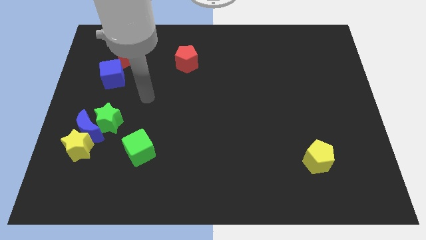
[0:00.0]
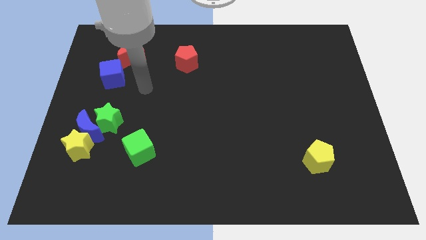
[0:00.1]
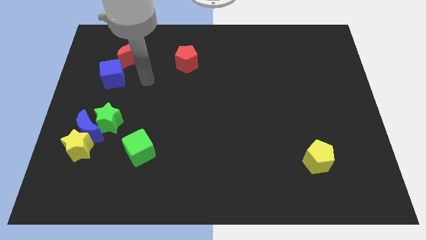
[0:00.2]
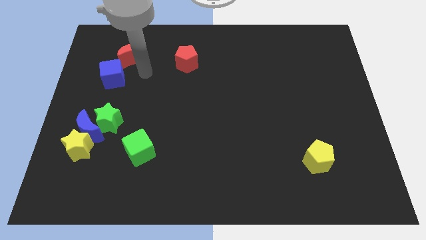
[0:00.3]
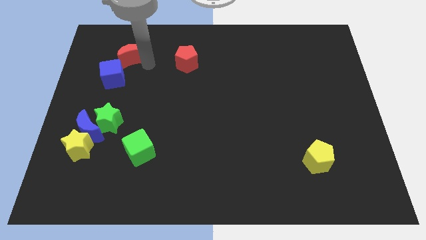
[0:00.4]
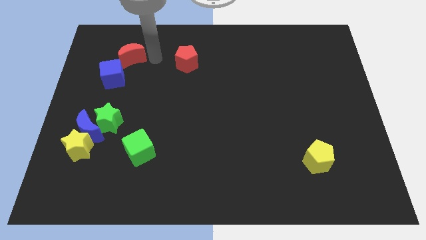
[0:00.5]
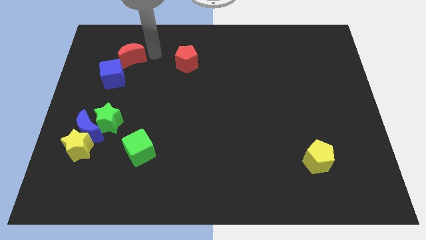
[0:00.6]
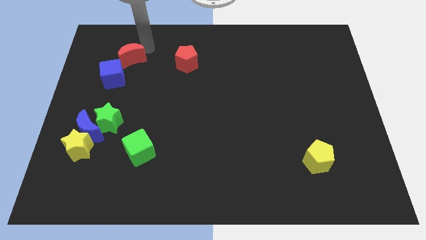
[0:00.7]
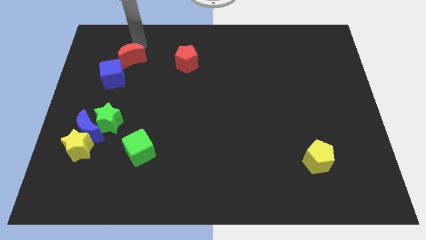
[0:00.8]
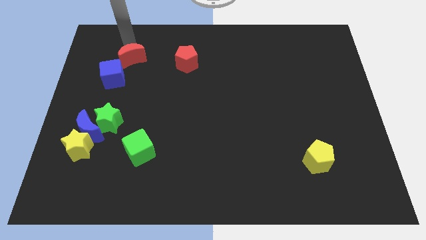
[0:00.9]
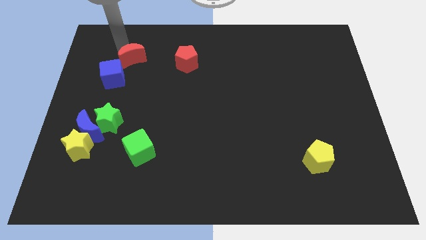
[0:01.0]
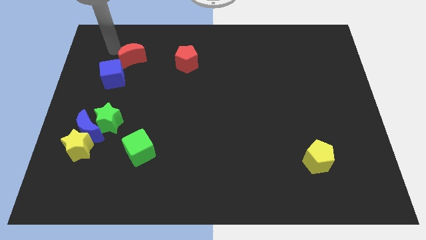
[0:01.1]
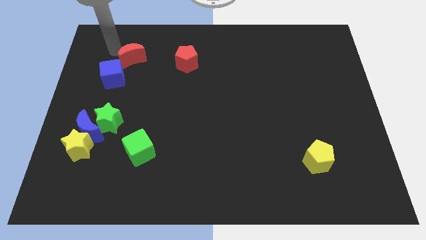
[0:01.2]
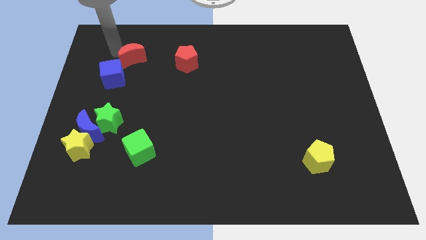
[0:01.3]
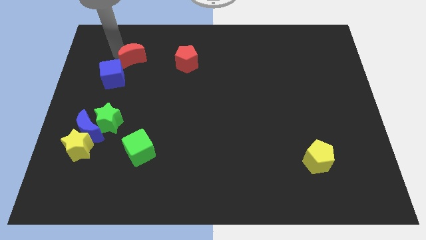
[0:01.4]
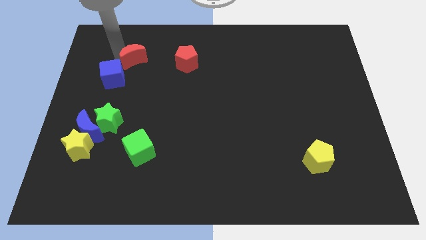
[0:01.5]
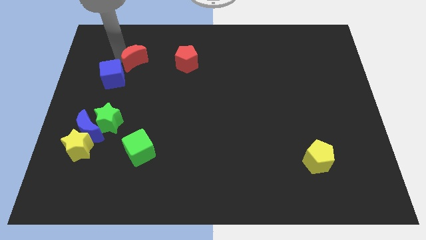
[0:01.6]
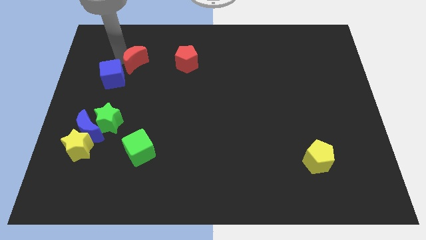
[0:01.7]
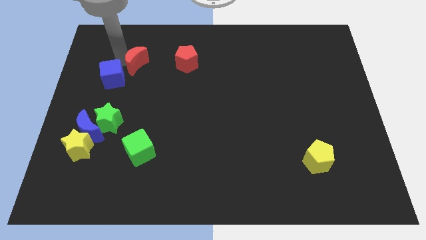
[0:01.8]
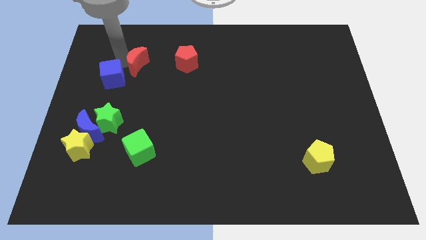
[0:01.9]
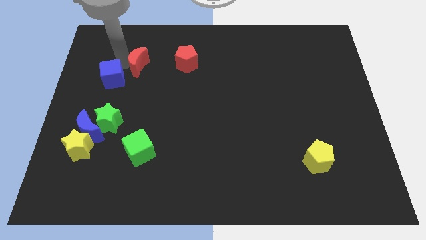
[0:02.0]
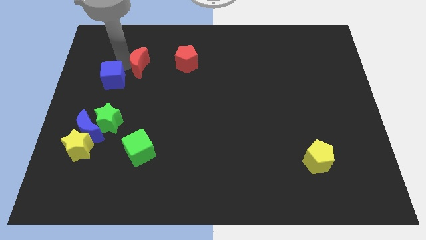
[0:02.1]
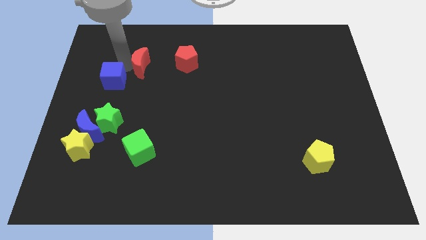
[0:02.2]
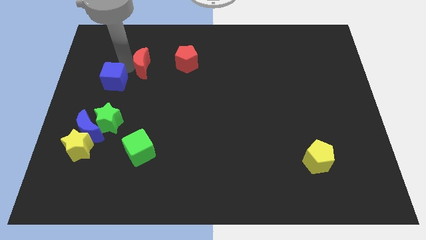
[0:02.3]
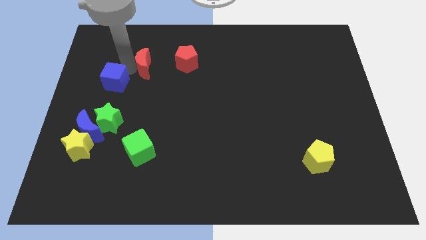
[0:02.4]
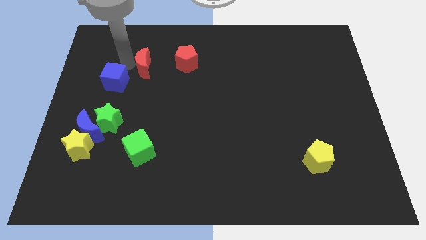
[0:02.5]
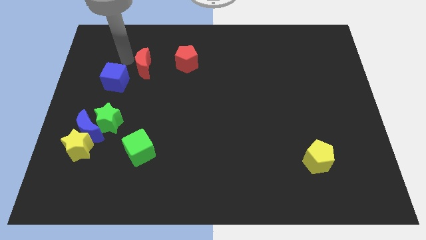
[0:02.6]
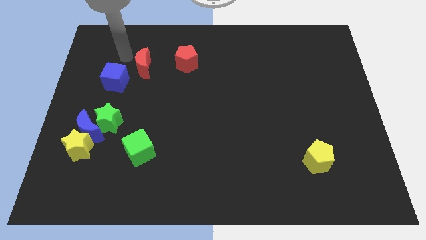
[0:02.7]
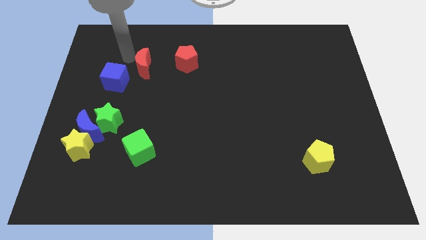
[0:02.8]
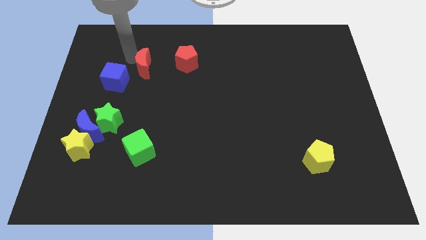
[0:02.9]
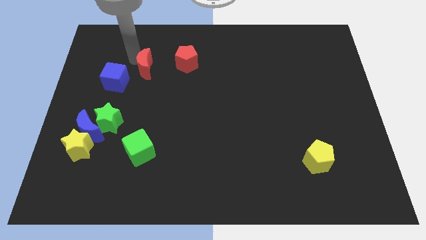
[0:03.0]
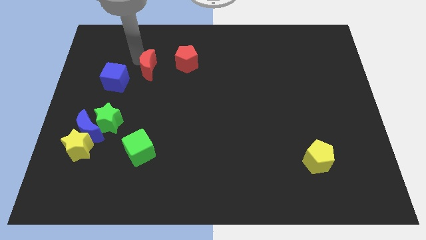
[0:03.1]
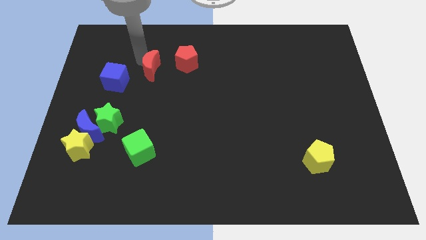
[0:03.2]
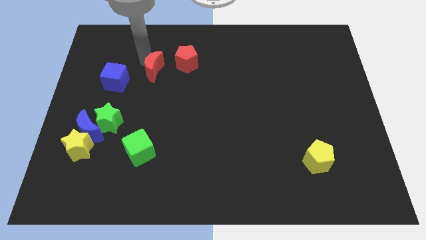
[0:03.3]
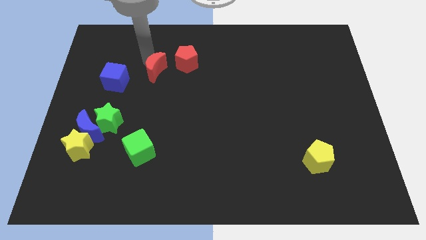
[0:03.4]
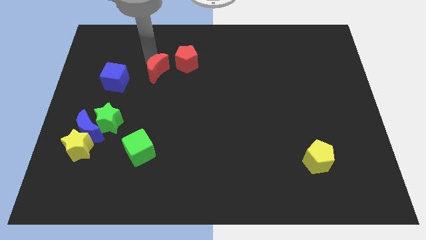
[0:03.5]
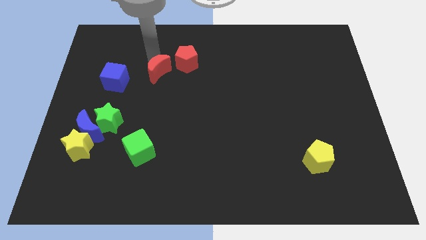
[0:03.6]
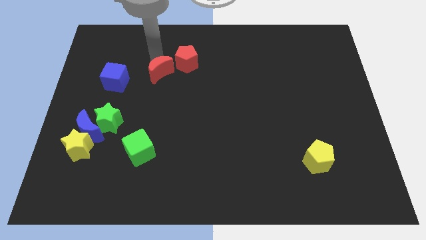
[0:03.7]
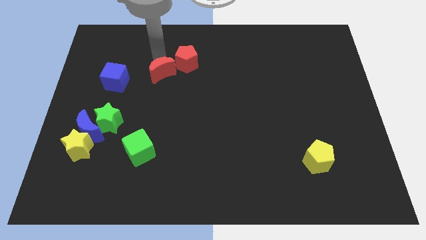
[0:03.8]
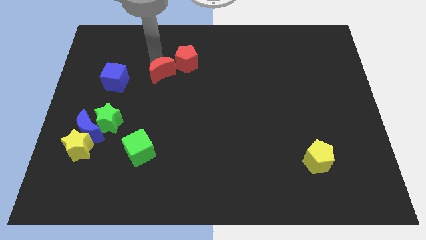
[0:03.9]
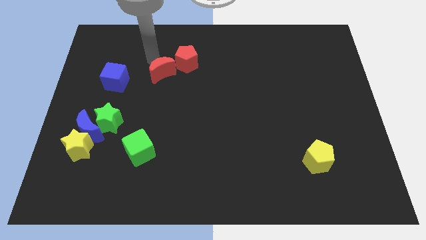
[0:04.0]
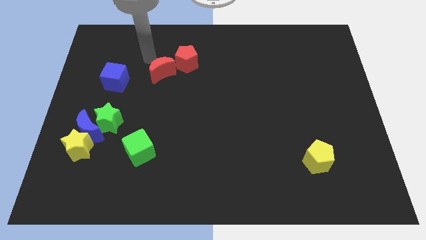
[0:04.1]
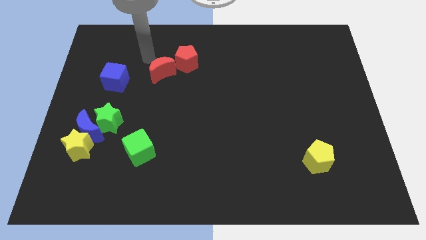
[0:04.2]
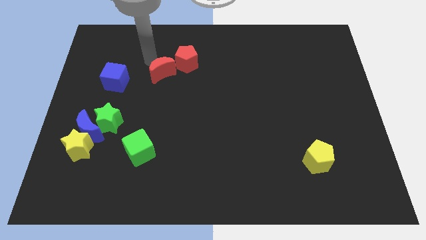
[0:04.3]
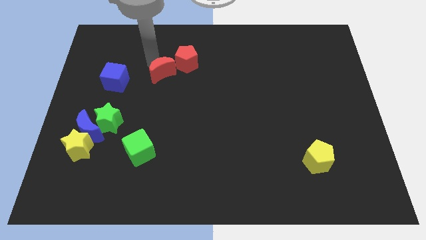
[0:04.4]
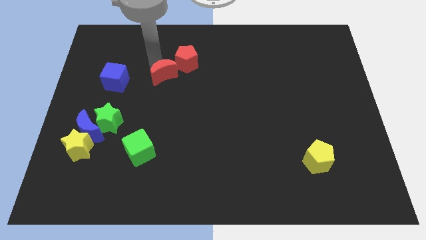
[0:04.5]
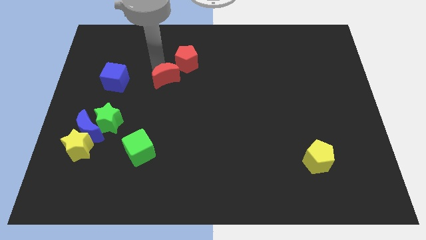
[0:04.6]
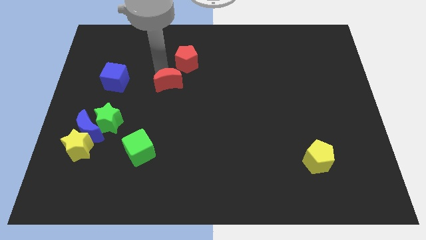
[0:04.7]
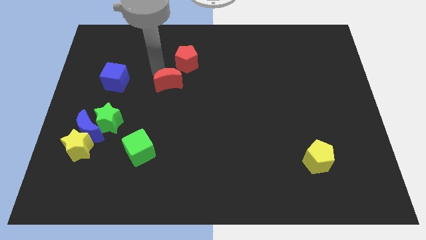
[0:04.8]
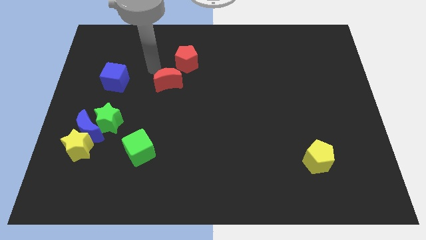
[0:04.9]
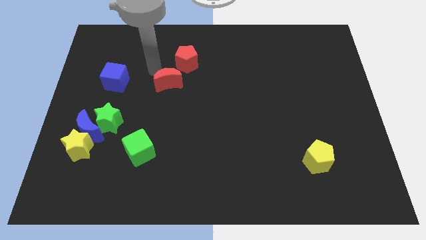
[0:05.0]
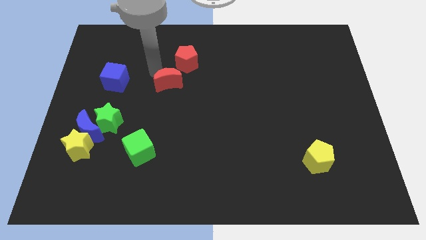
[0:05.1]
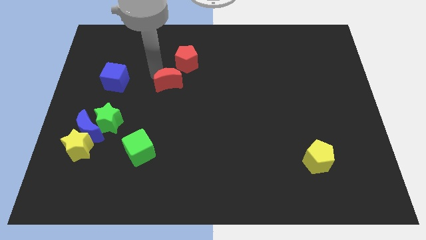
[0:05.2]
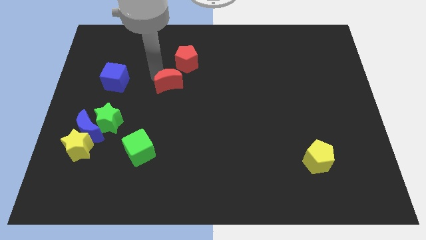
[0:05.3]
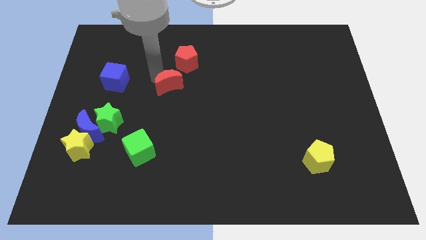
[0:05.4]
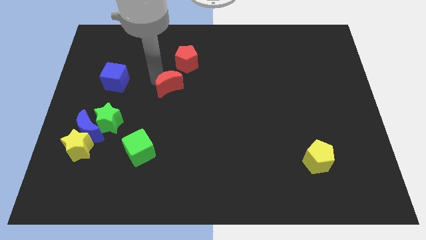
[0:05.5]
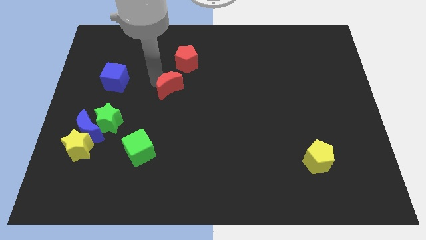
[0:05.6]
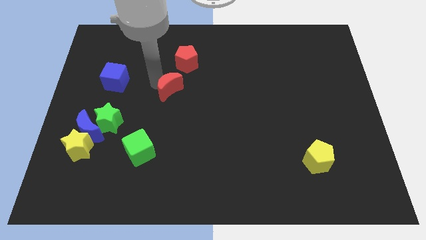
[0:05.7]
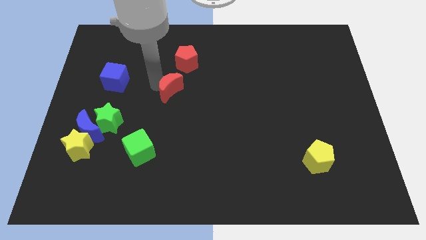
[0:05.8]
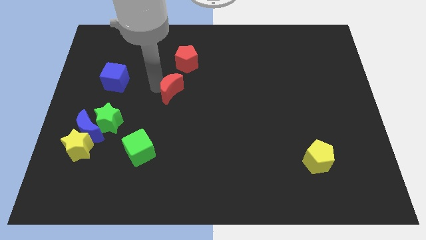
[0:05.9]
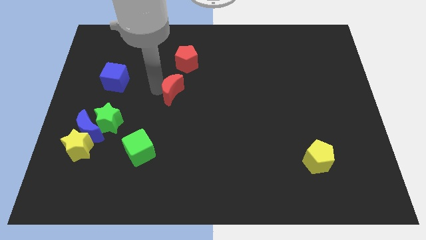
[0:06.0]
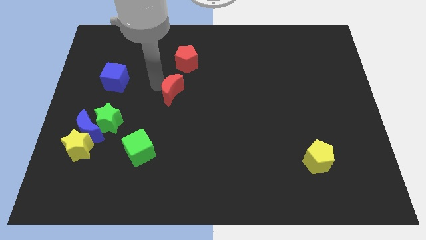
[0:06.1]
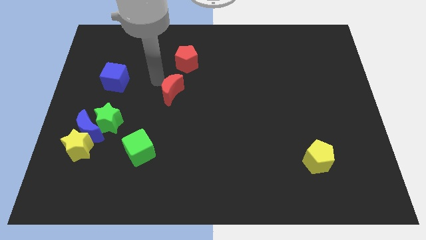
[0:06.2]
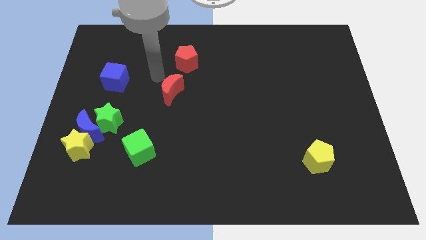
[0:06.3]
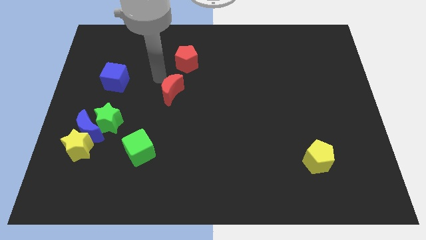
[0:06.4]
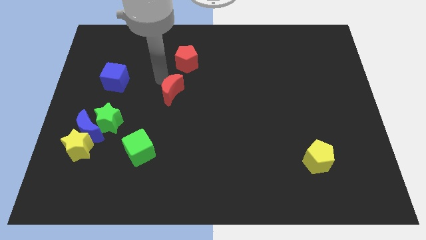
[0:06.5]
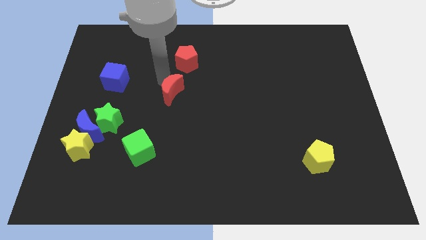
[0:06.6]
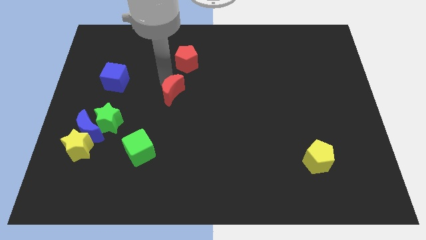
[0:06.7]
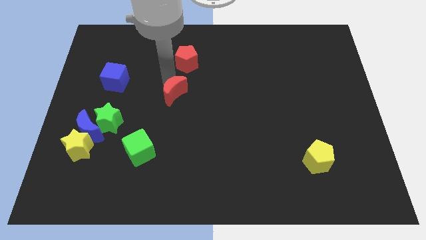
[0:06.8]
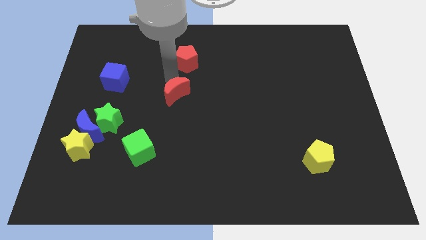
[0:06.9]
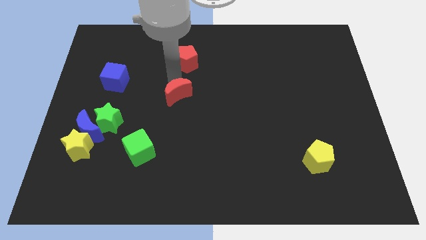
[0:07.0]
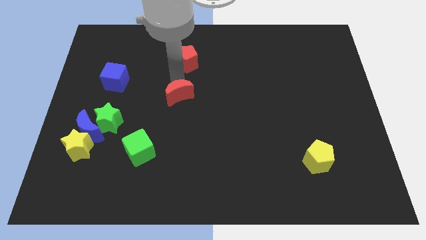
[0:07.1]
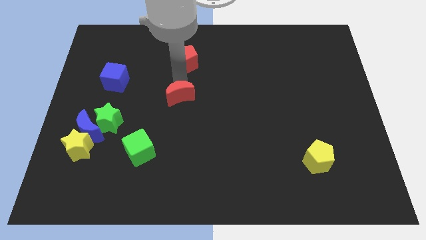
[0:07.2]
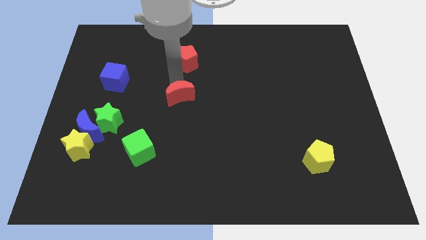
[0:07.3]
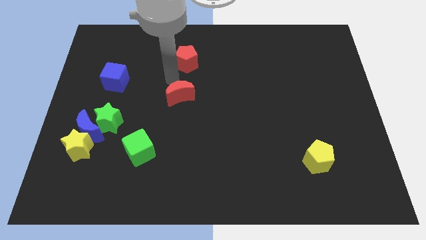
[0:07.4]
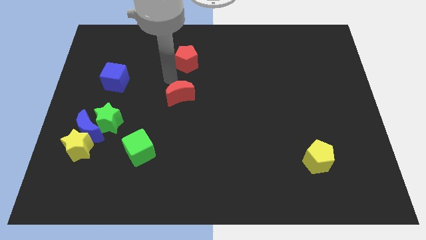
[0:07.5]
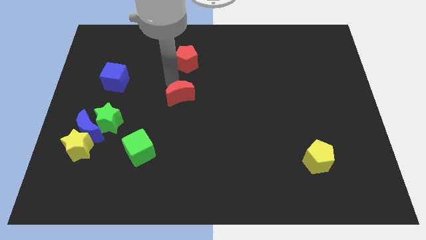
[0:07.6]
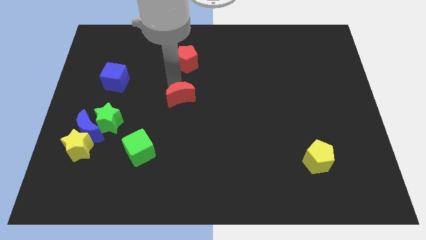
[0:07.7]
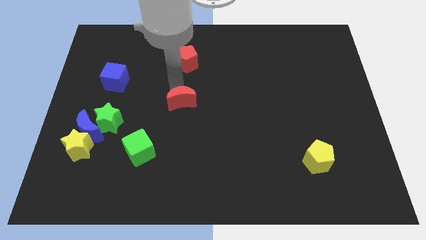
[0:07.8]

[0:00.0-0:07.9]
move the red moon diagonally down and right
